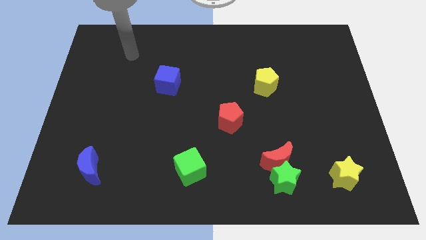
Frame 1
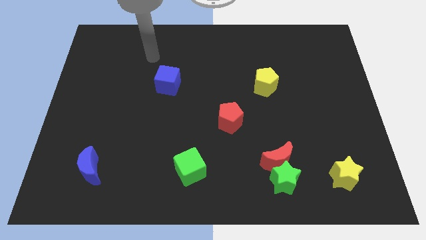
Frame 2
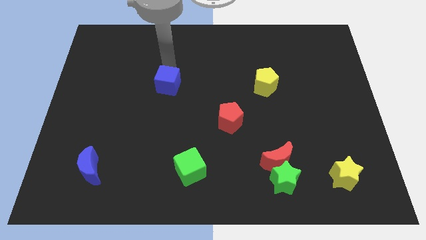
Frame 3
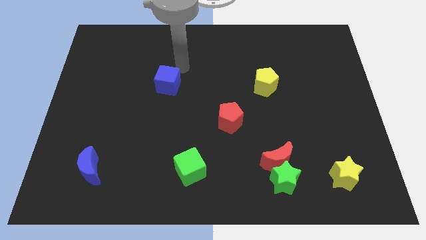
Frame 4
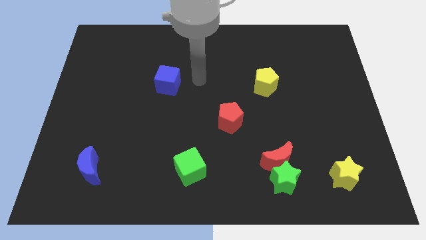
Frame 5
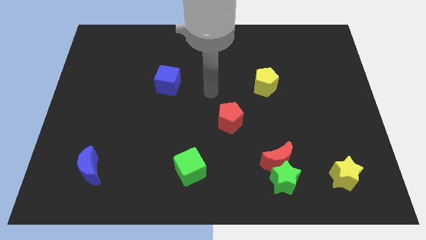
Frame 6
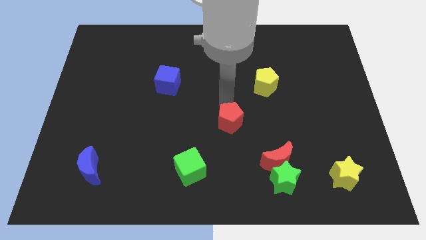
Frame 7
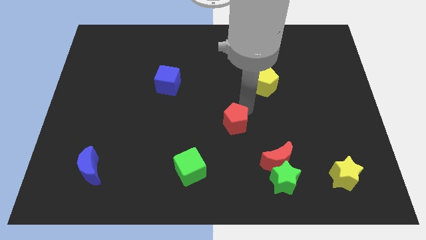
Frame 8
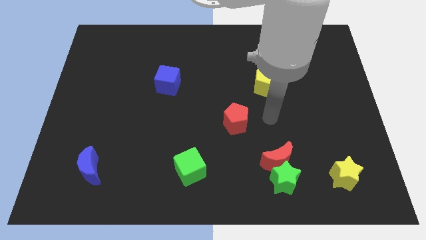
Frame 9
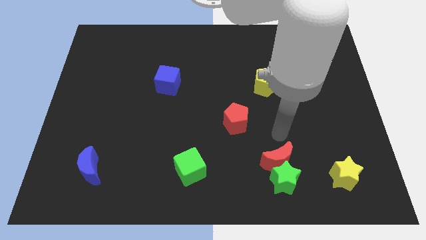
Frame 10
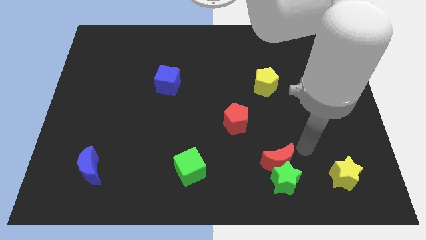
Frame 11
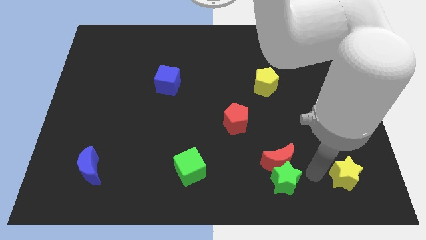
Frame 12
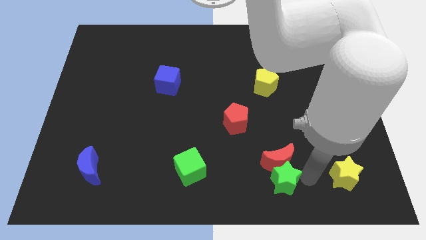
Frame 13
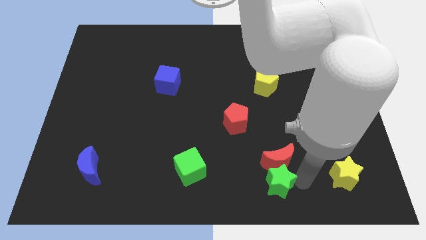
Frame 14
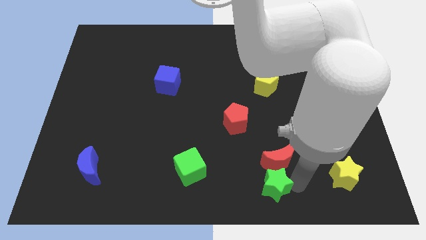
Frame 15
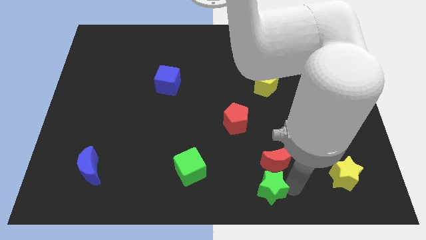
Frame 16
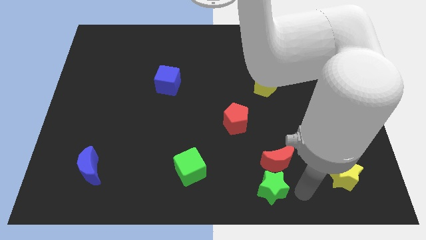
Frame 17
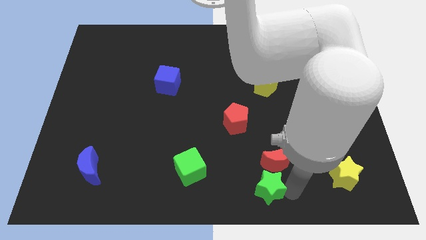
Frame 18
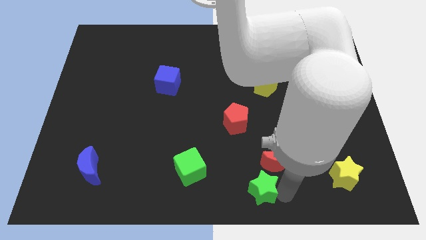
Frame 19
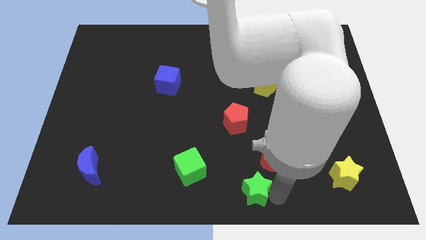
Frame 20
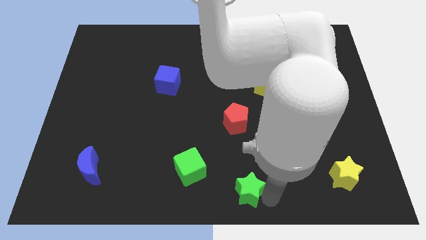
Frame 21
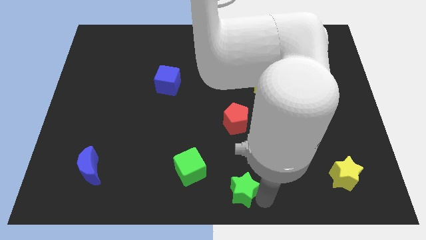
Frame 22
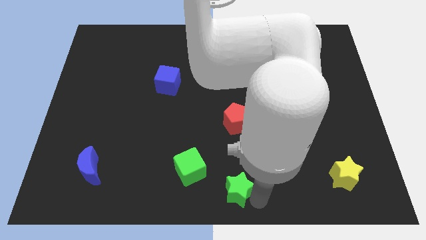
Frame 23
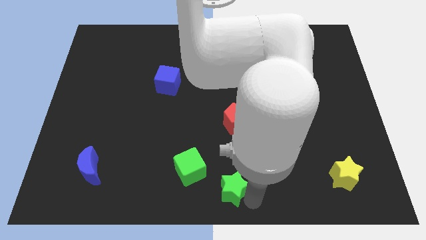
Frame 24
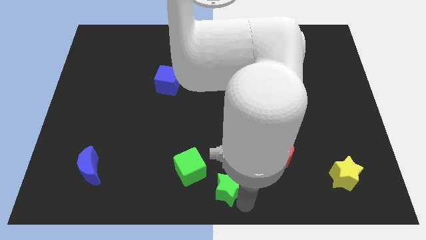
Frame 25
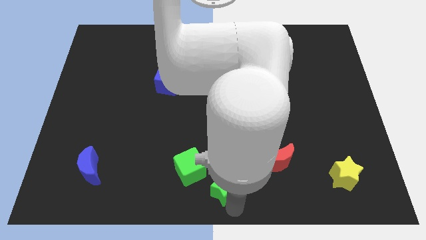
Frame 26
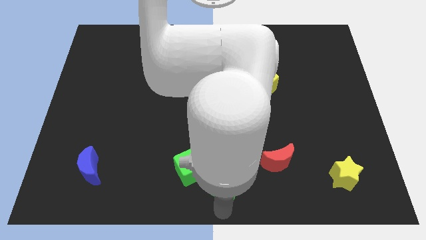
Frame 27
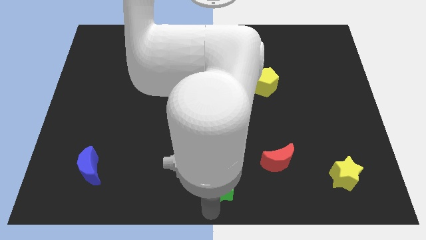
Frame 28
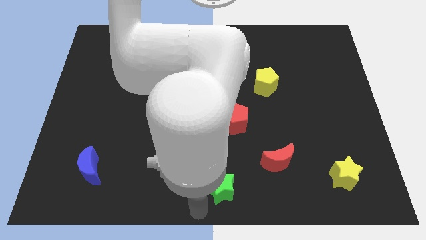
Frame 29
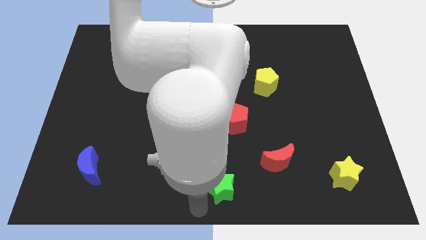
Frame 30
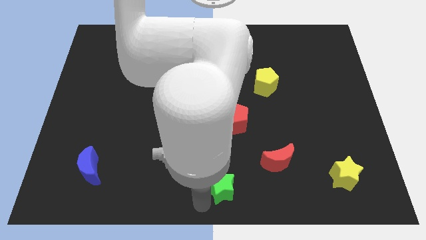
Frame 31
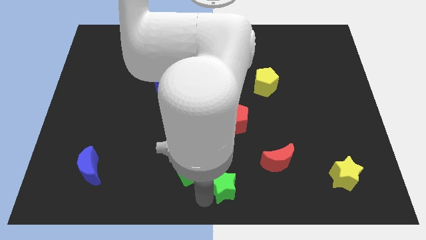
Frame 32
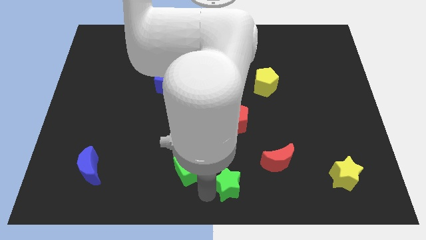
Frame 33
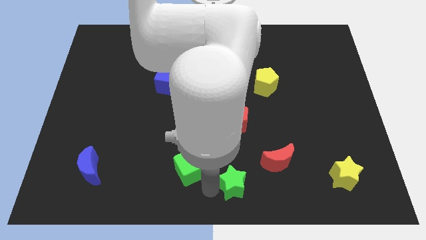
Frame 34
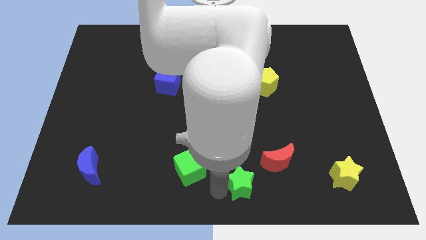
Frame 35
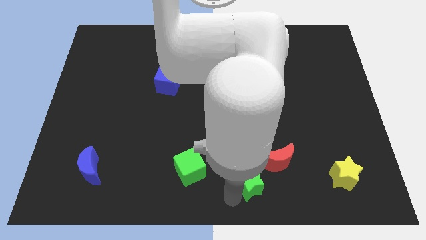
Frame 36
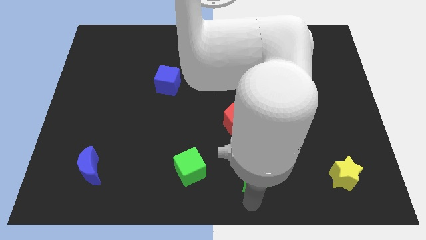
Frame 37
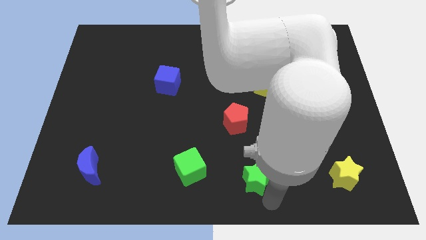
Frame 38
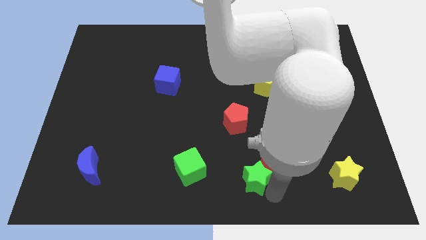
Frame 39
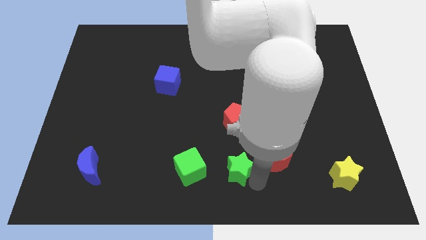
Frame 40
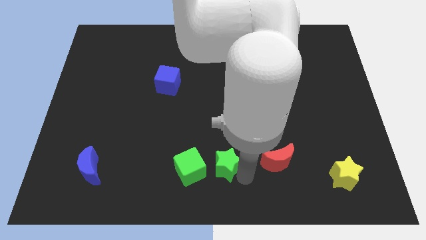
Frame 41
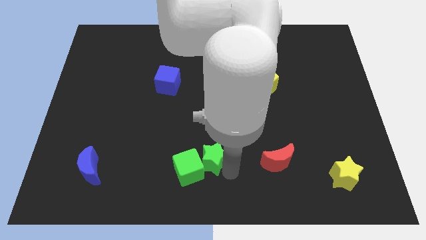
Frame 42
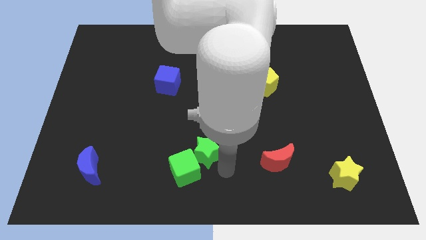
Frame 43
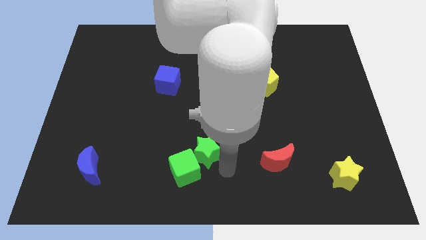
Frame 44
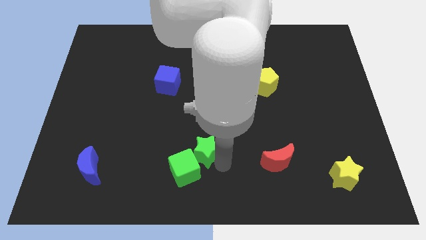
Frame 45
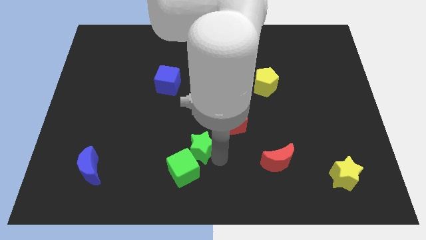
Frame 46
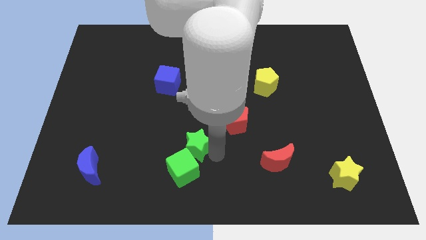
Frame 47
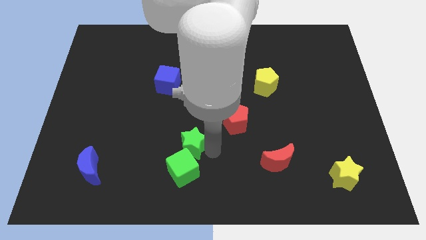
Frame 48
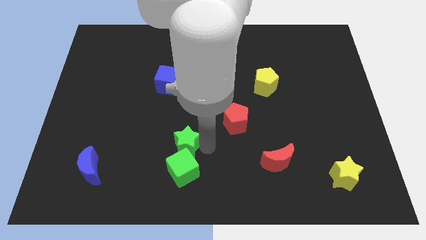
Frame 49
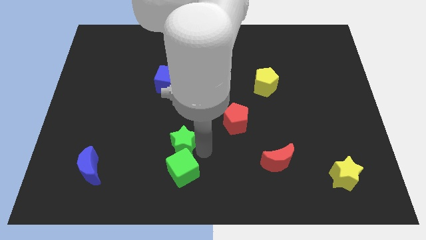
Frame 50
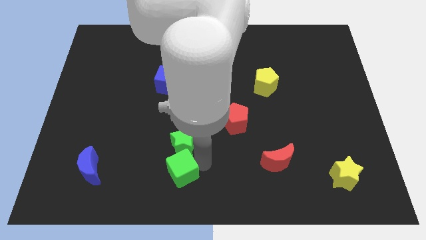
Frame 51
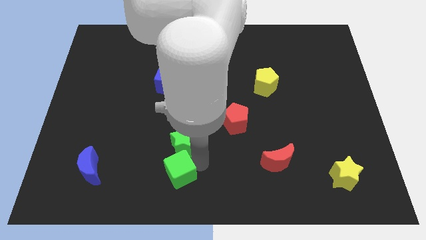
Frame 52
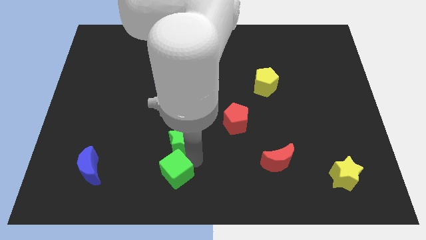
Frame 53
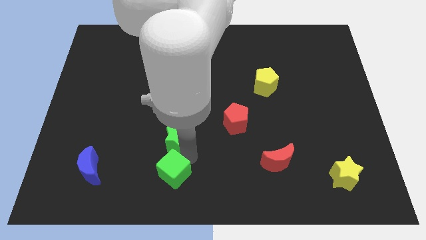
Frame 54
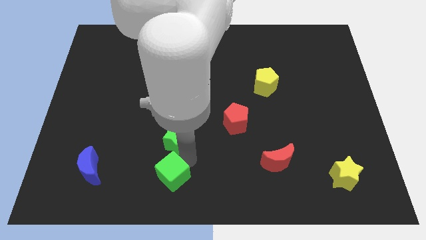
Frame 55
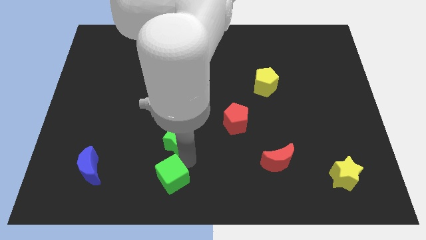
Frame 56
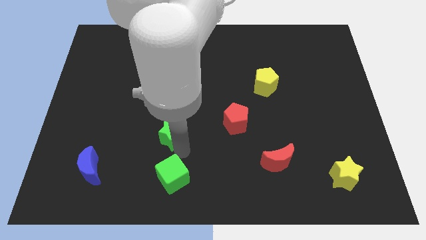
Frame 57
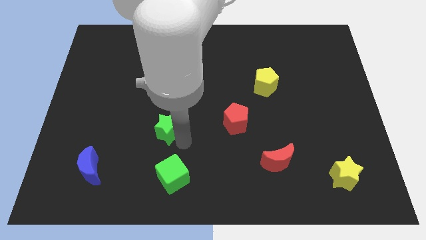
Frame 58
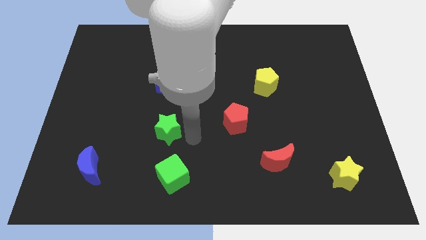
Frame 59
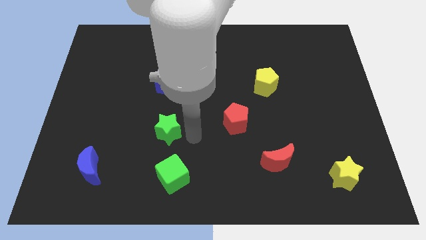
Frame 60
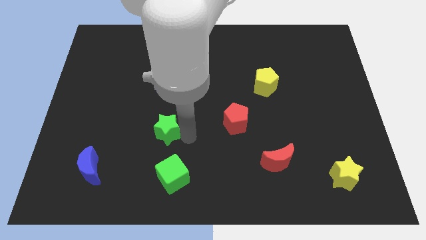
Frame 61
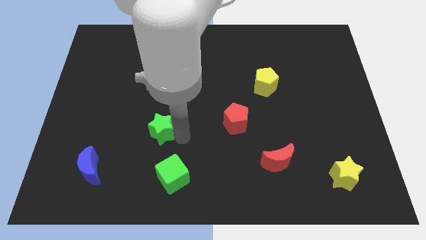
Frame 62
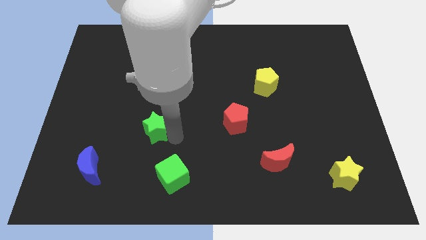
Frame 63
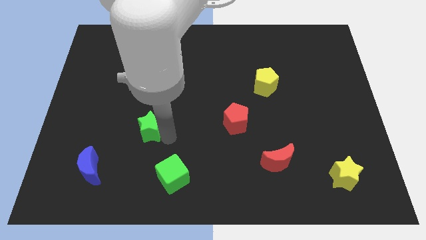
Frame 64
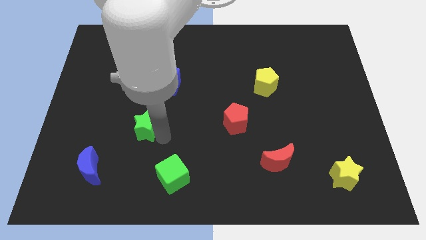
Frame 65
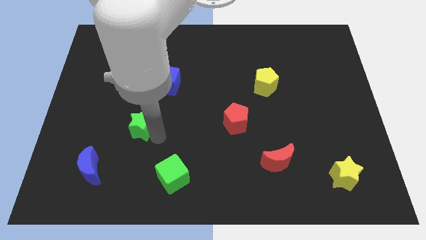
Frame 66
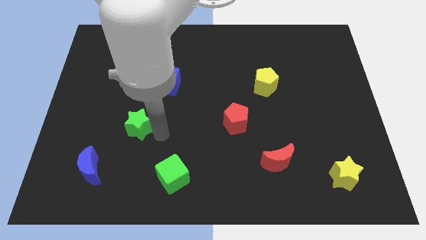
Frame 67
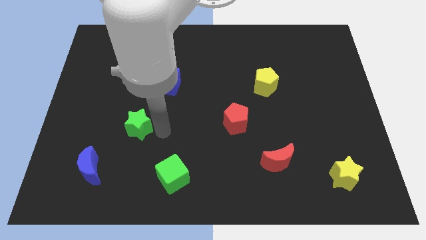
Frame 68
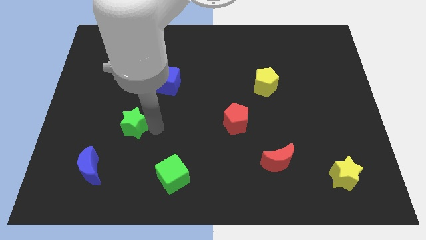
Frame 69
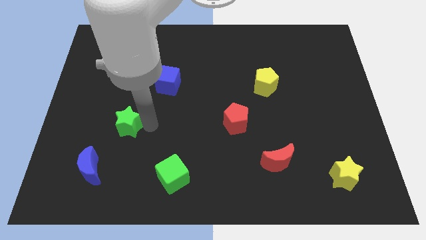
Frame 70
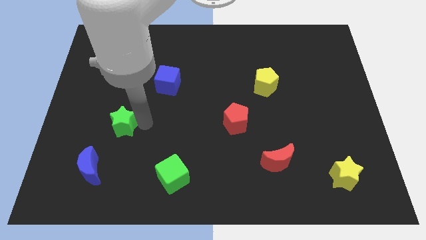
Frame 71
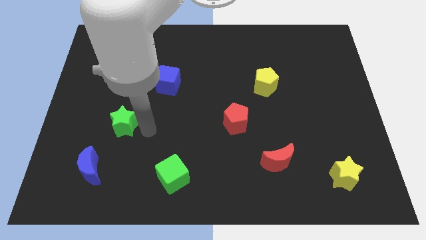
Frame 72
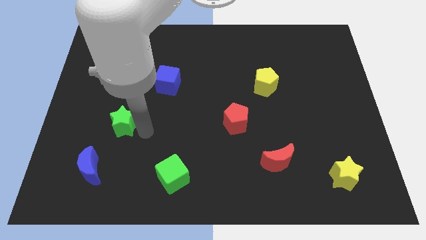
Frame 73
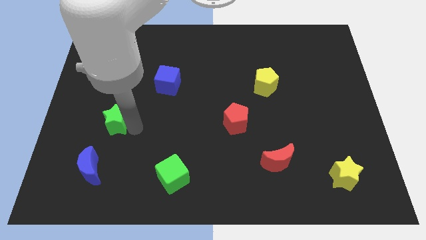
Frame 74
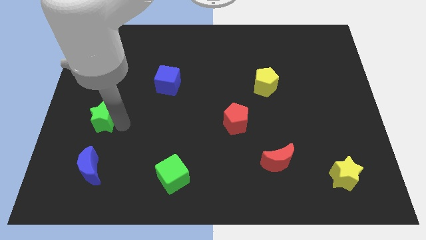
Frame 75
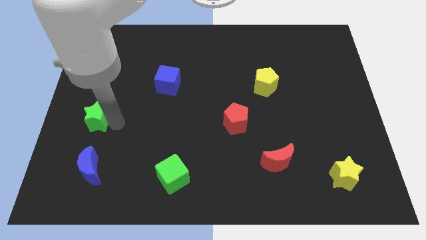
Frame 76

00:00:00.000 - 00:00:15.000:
slide the green star to the left side of the board

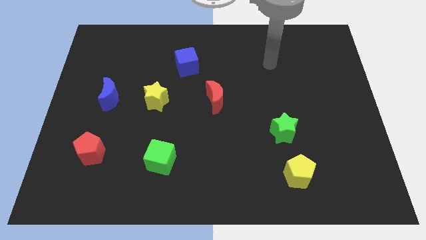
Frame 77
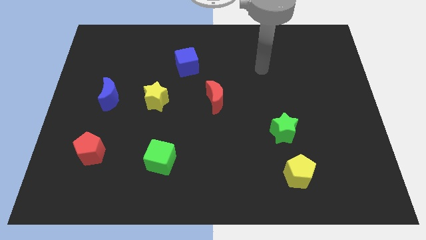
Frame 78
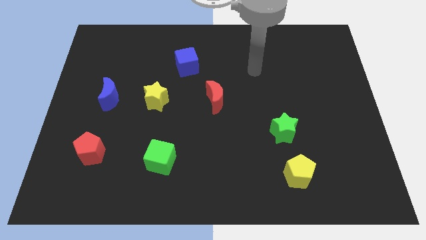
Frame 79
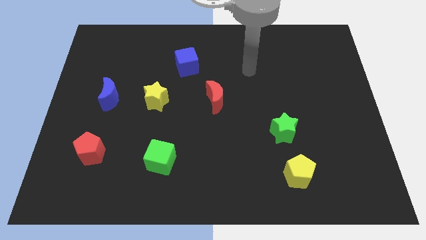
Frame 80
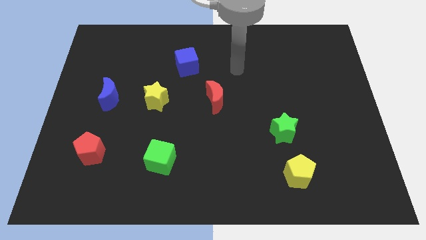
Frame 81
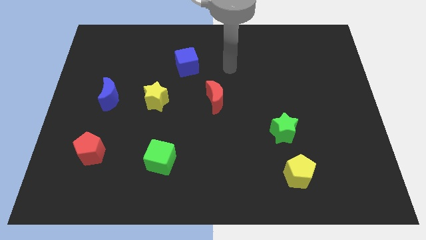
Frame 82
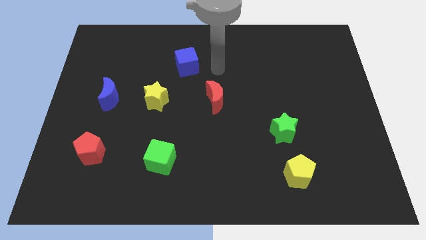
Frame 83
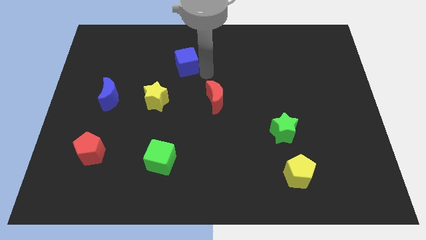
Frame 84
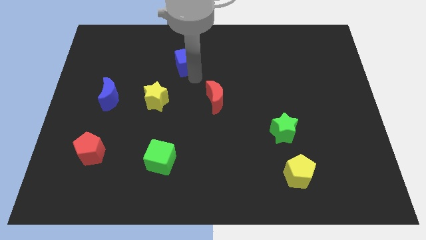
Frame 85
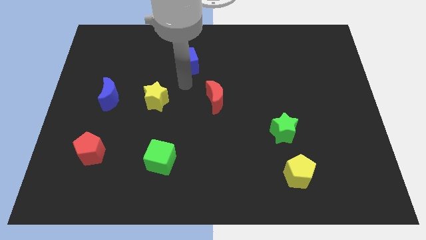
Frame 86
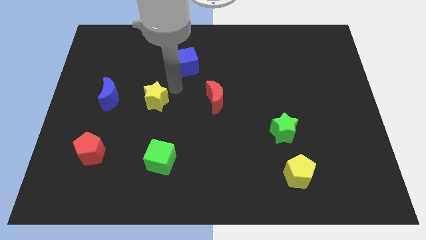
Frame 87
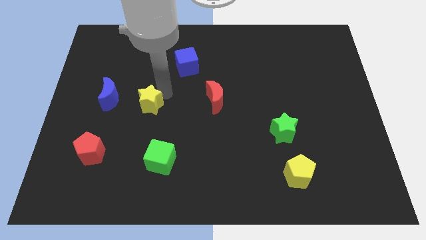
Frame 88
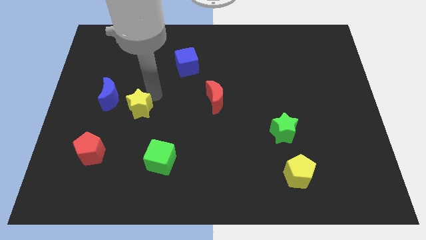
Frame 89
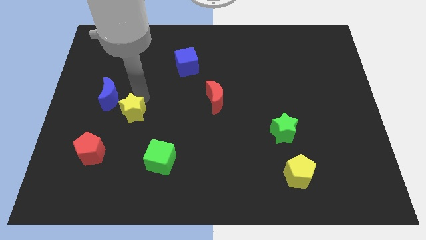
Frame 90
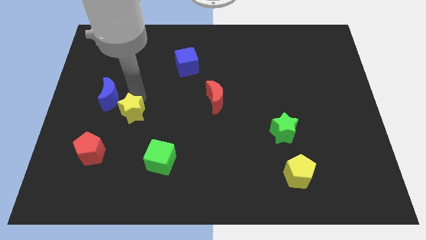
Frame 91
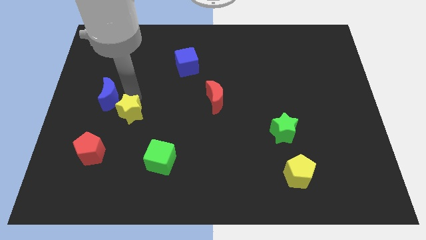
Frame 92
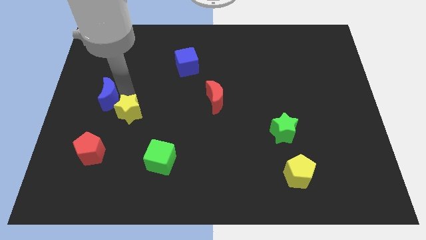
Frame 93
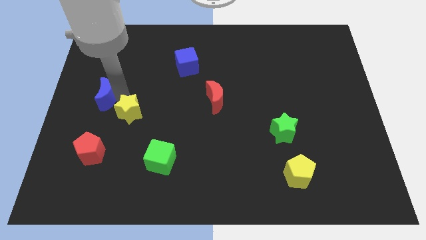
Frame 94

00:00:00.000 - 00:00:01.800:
slide the blue moon to the left side
